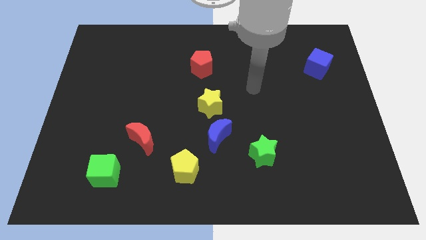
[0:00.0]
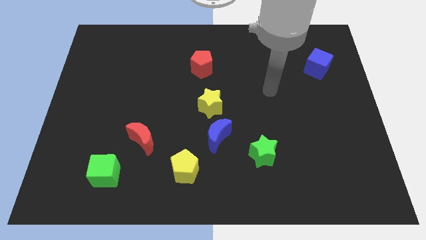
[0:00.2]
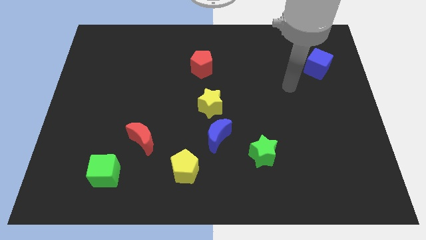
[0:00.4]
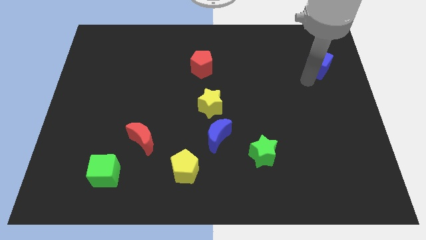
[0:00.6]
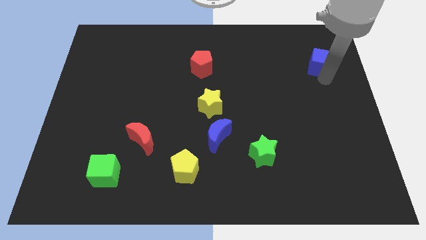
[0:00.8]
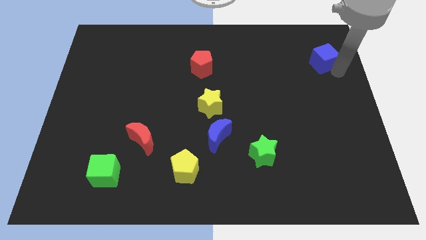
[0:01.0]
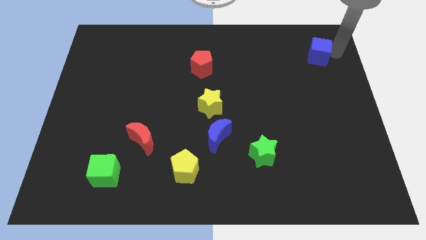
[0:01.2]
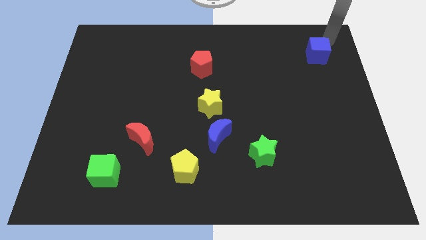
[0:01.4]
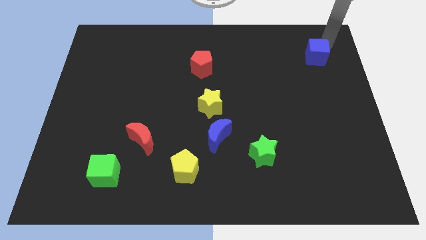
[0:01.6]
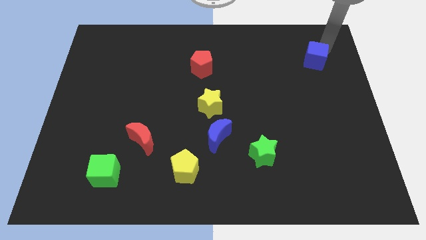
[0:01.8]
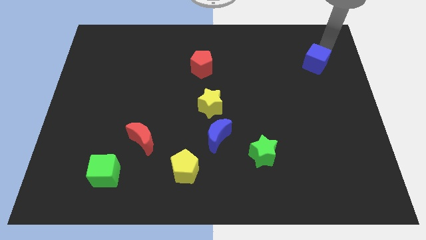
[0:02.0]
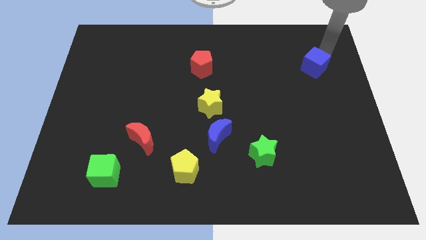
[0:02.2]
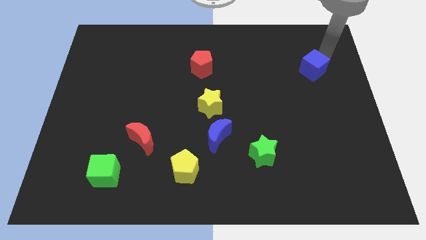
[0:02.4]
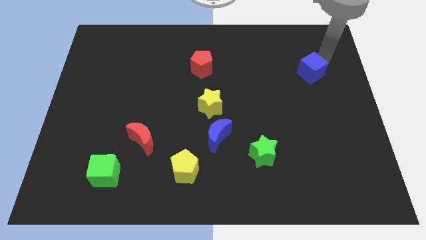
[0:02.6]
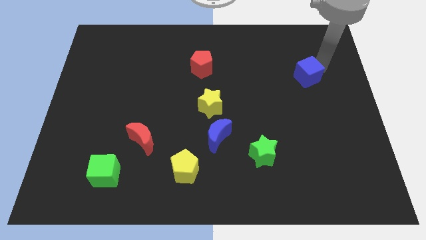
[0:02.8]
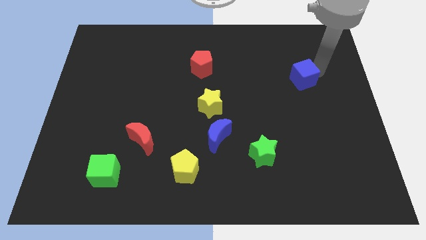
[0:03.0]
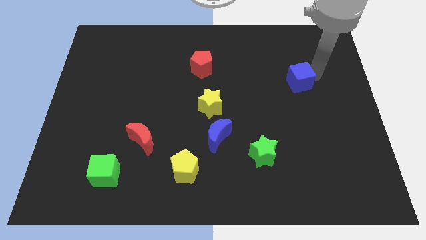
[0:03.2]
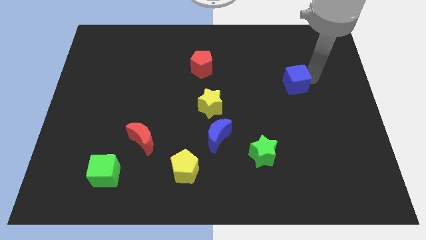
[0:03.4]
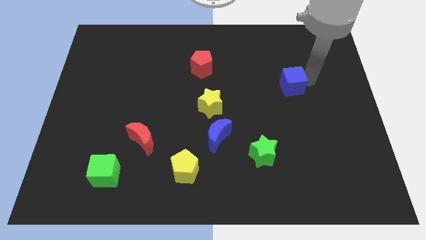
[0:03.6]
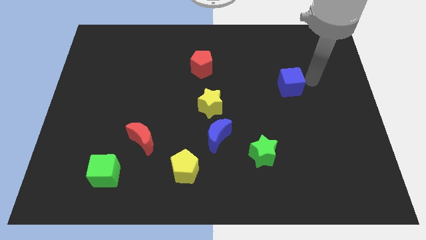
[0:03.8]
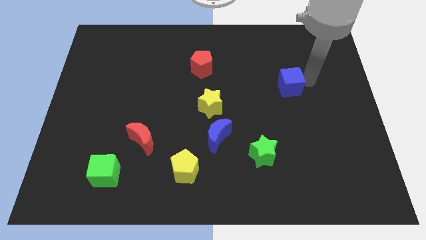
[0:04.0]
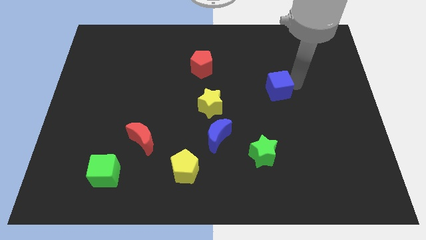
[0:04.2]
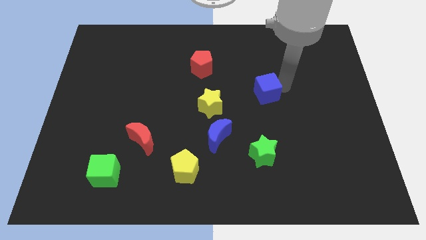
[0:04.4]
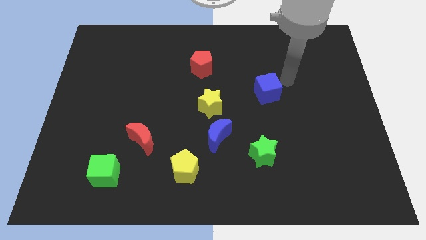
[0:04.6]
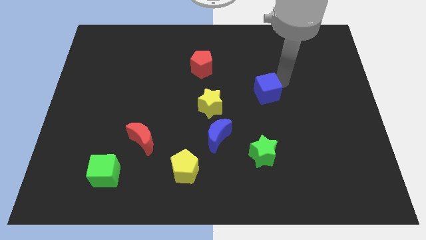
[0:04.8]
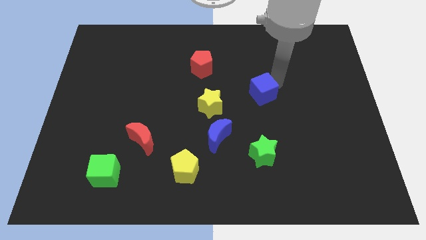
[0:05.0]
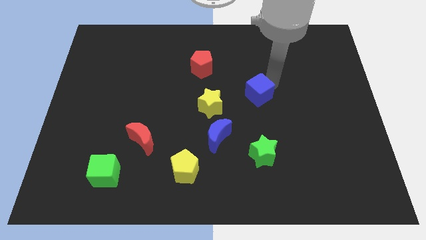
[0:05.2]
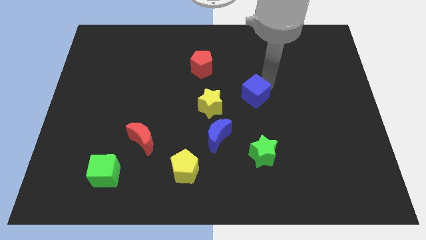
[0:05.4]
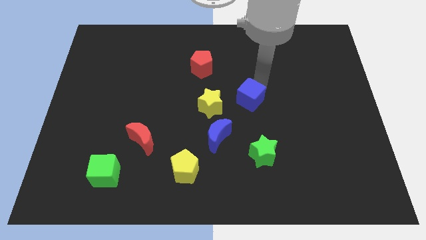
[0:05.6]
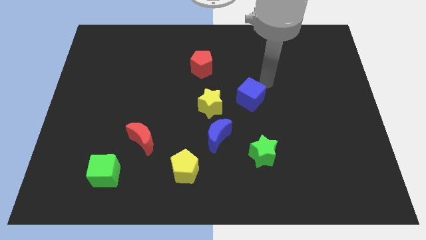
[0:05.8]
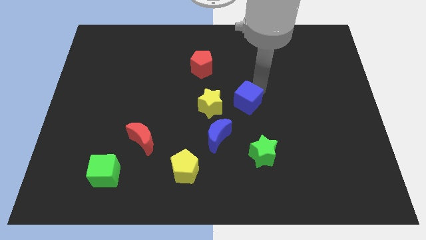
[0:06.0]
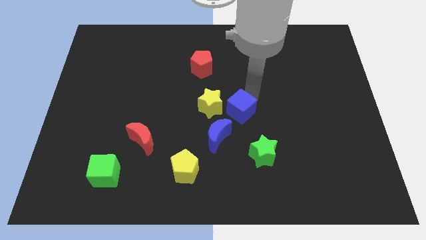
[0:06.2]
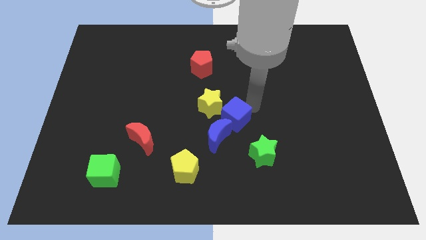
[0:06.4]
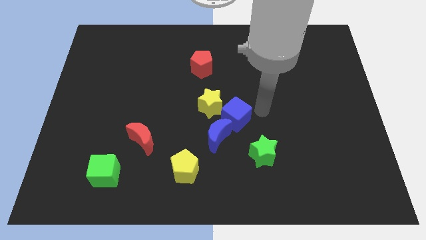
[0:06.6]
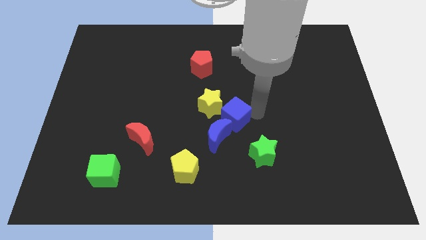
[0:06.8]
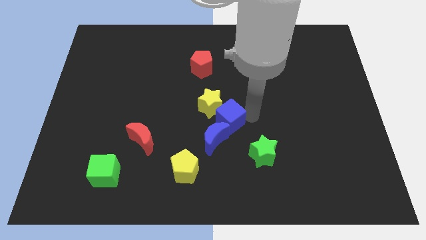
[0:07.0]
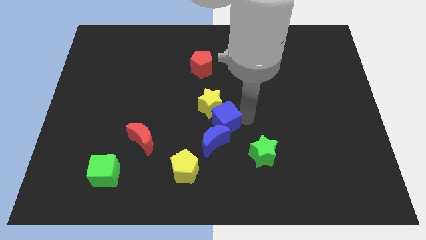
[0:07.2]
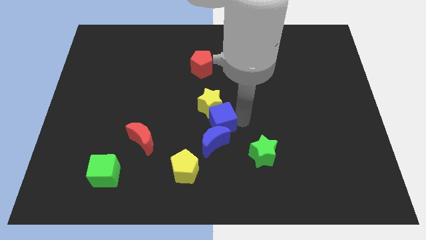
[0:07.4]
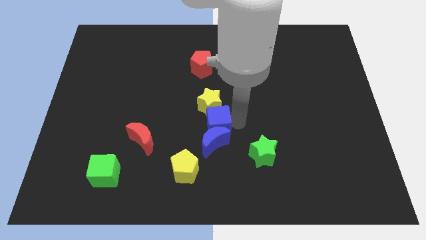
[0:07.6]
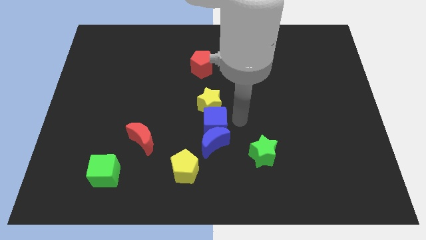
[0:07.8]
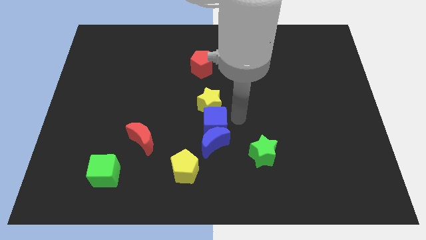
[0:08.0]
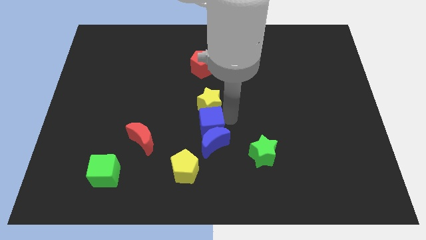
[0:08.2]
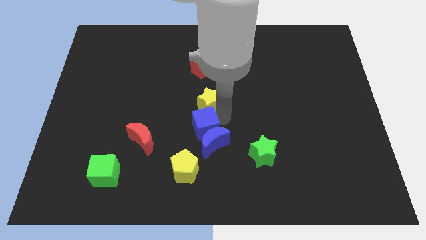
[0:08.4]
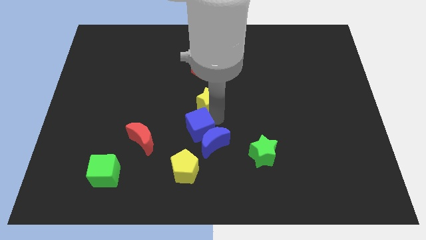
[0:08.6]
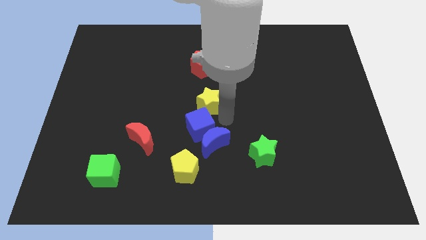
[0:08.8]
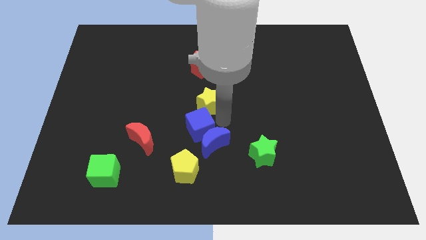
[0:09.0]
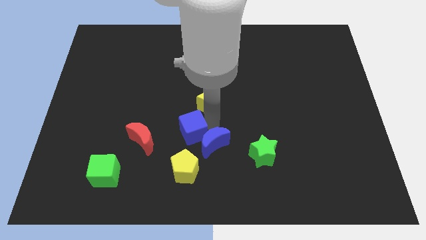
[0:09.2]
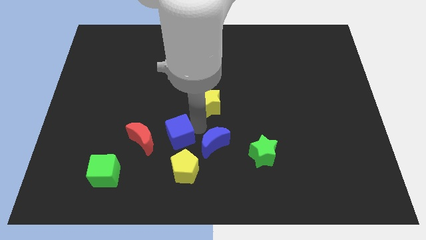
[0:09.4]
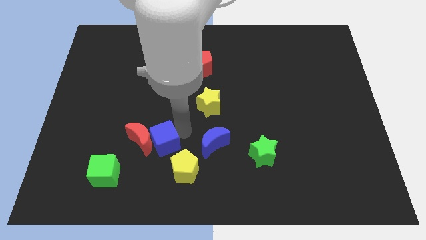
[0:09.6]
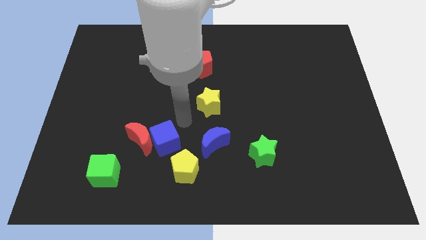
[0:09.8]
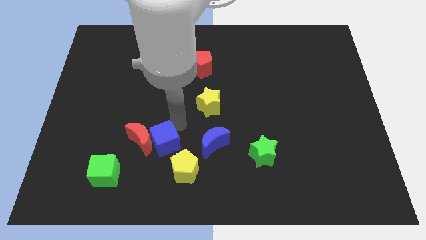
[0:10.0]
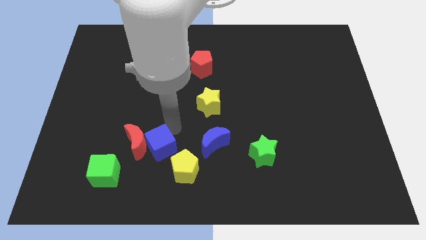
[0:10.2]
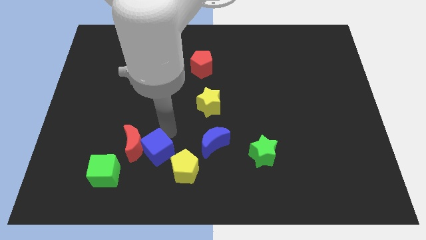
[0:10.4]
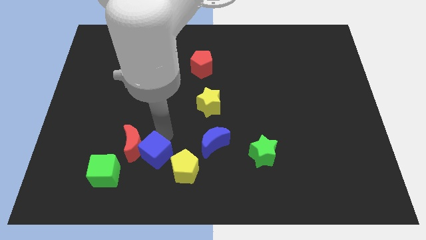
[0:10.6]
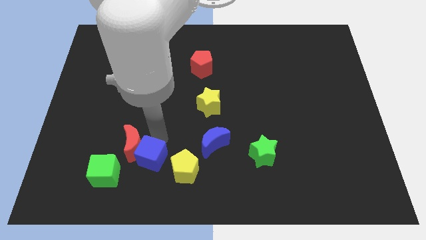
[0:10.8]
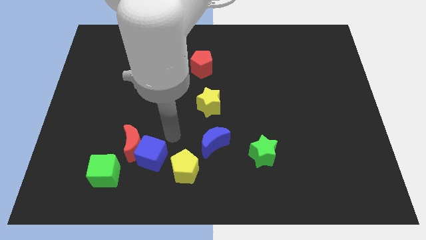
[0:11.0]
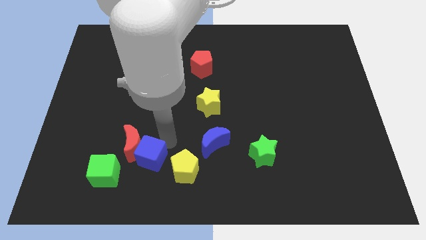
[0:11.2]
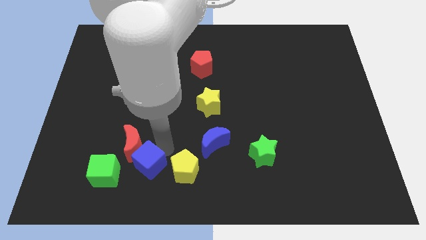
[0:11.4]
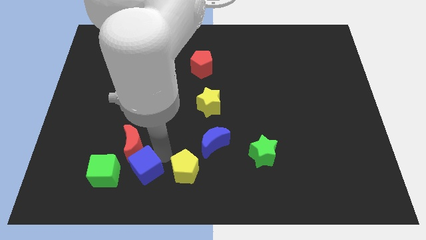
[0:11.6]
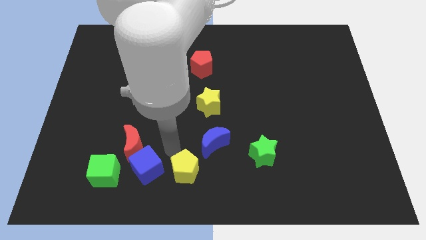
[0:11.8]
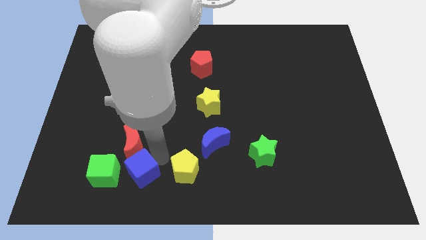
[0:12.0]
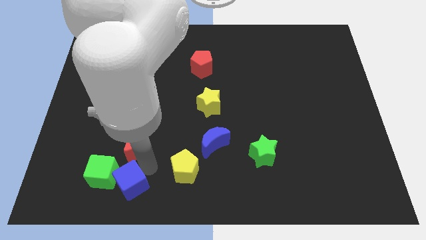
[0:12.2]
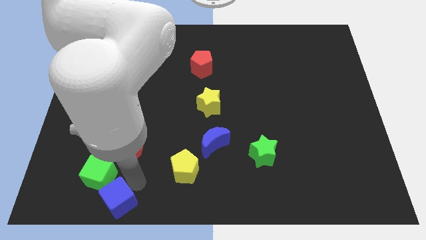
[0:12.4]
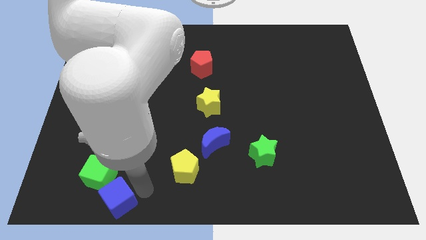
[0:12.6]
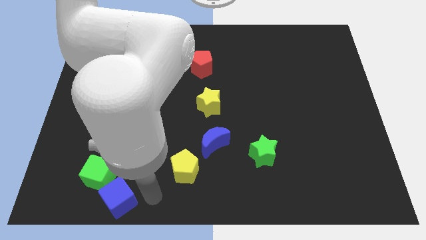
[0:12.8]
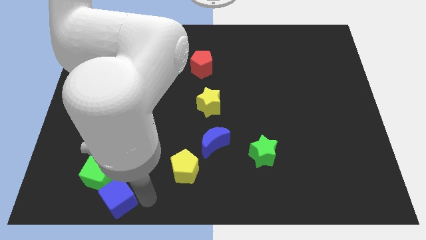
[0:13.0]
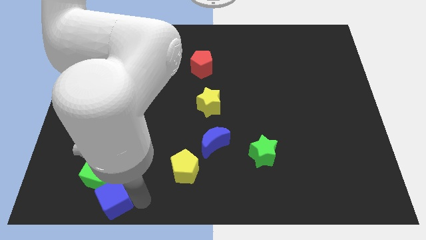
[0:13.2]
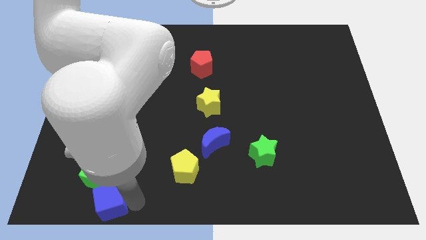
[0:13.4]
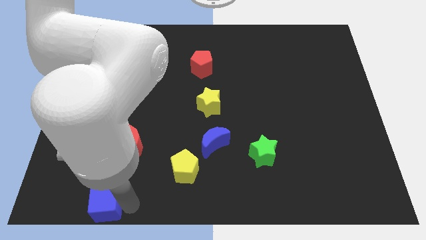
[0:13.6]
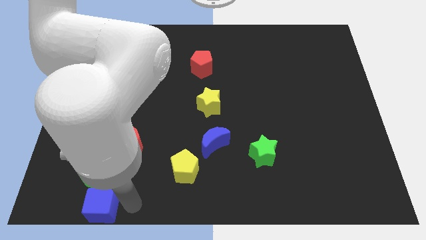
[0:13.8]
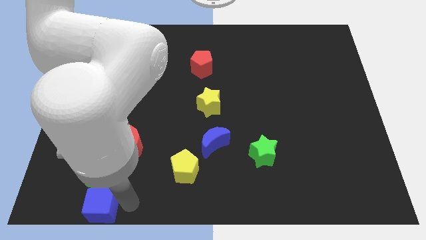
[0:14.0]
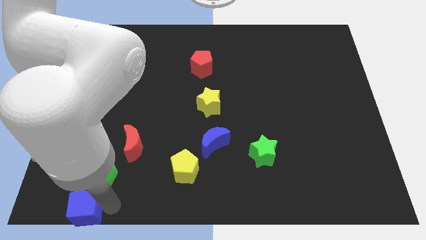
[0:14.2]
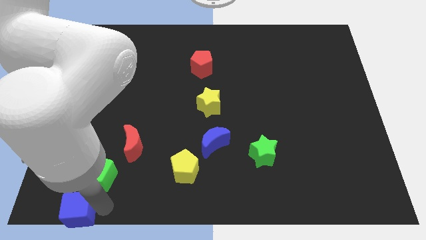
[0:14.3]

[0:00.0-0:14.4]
push the blue cube to the bottom left of the board
